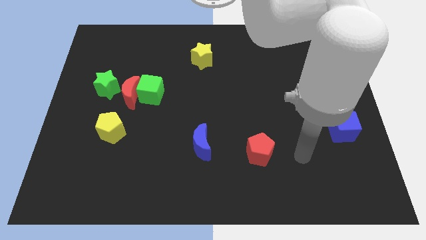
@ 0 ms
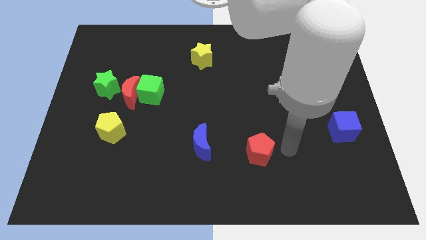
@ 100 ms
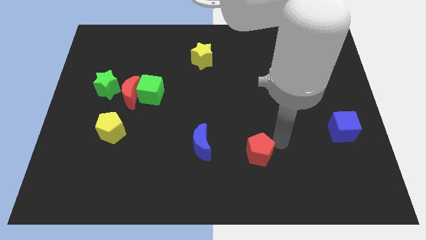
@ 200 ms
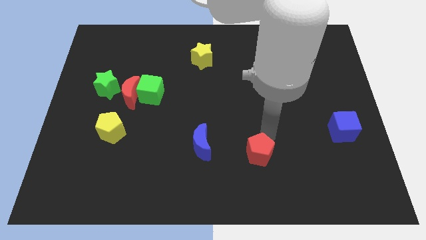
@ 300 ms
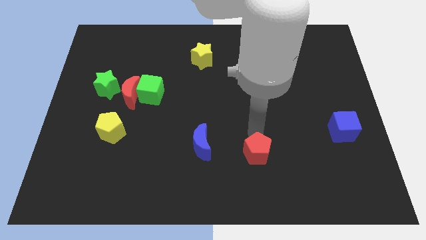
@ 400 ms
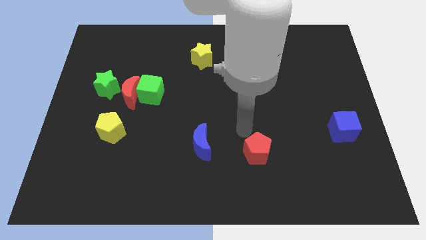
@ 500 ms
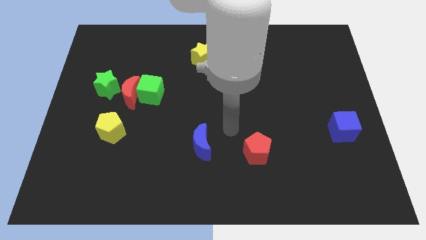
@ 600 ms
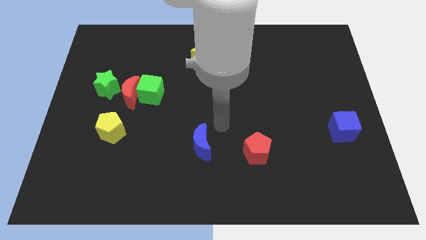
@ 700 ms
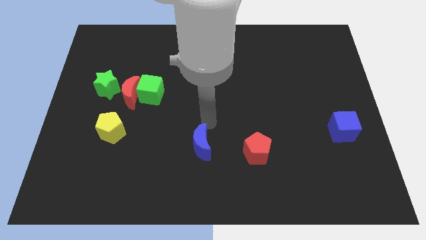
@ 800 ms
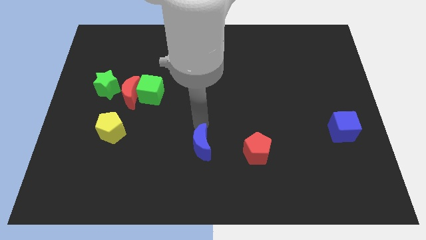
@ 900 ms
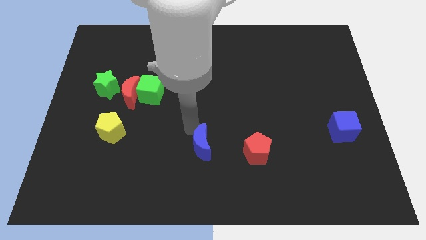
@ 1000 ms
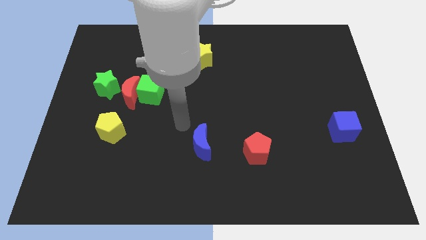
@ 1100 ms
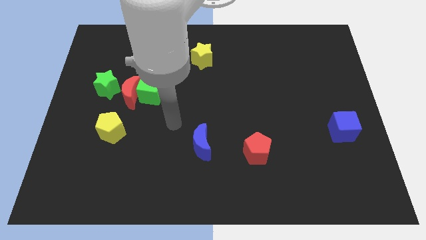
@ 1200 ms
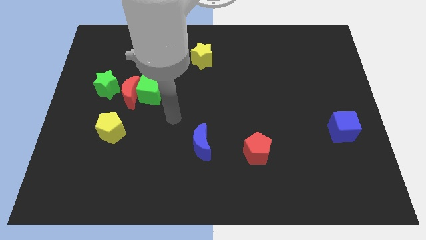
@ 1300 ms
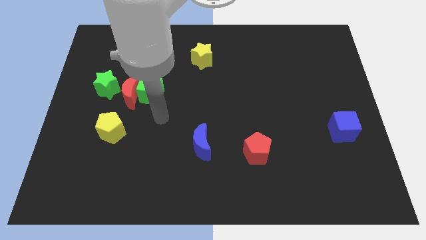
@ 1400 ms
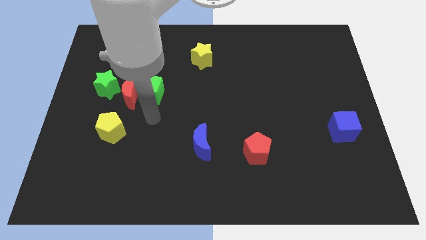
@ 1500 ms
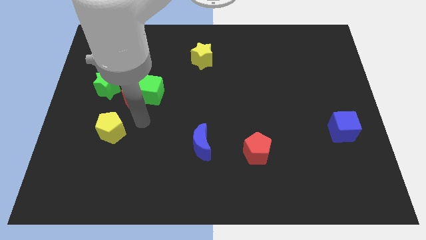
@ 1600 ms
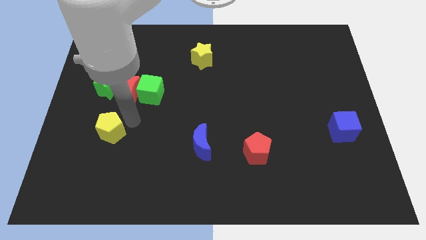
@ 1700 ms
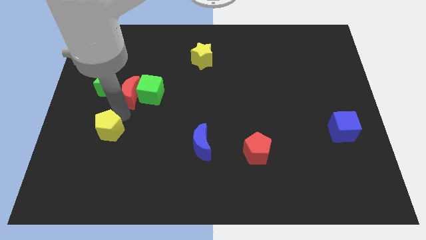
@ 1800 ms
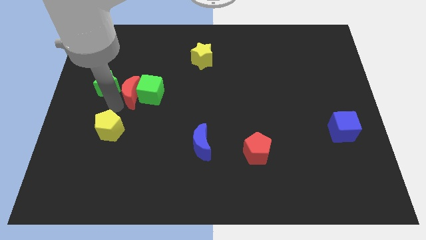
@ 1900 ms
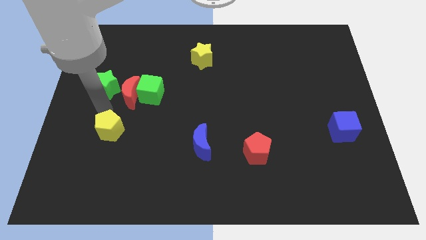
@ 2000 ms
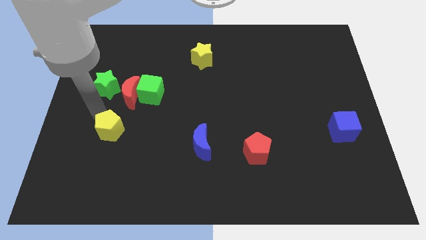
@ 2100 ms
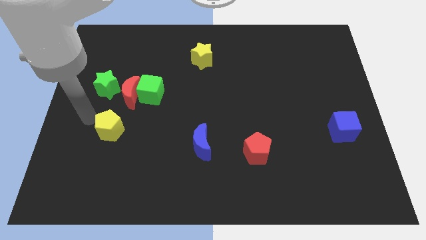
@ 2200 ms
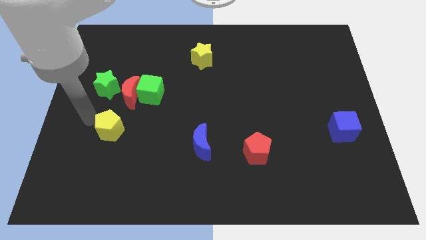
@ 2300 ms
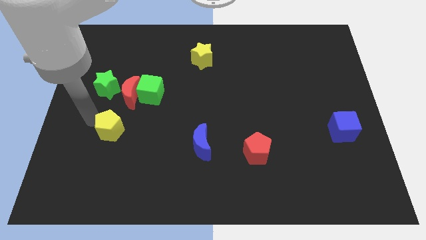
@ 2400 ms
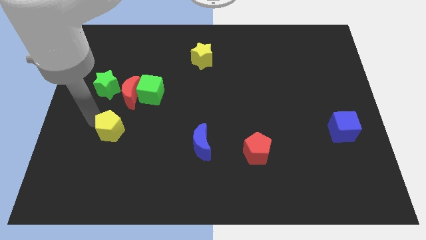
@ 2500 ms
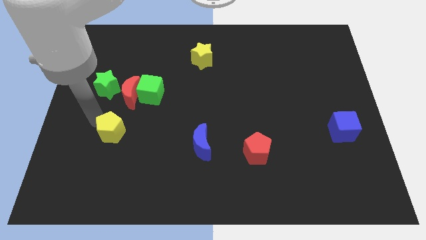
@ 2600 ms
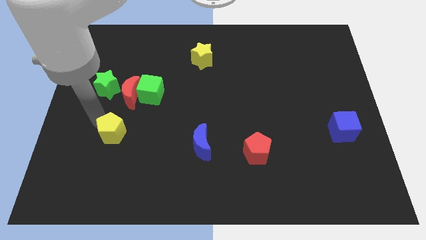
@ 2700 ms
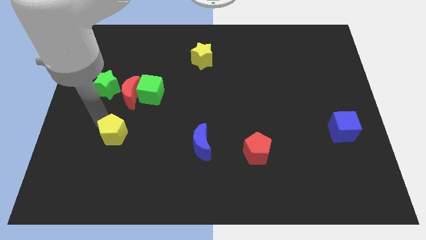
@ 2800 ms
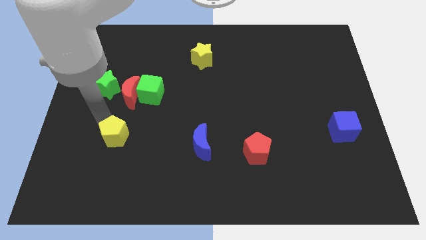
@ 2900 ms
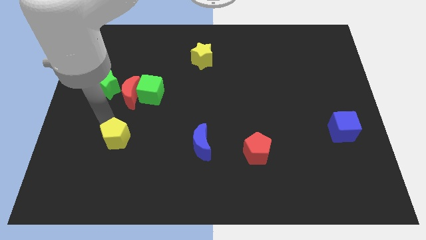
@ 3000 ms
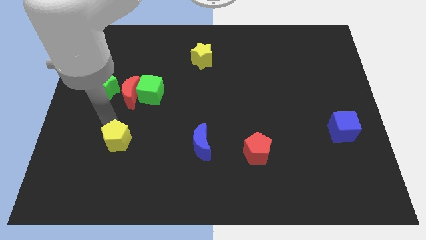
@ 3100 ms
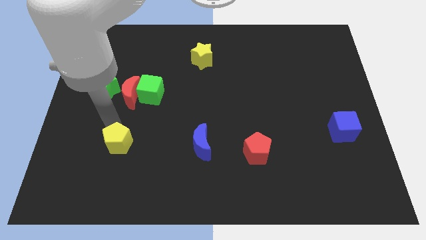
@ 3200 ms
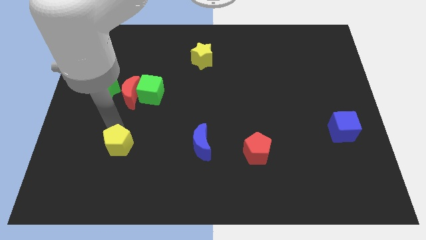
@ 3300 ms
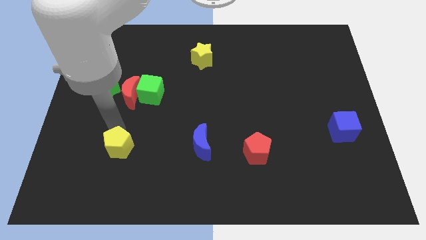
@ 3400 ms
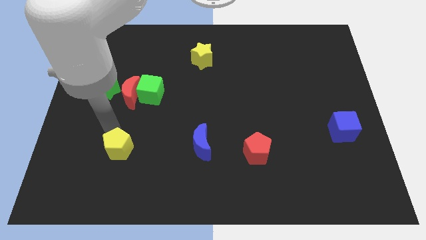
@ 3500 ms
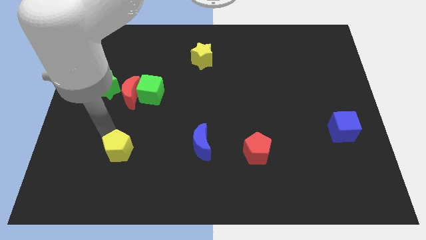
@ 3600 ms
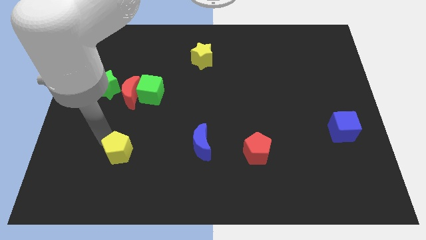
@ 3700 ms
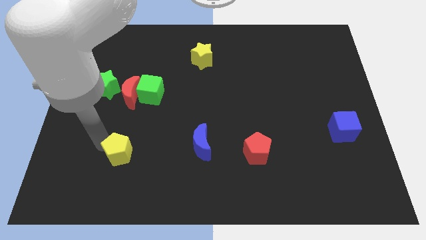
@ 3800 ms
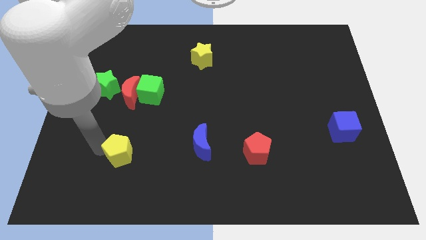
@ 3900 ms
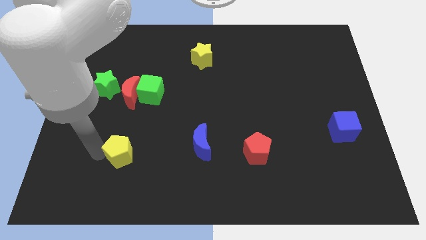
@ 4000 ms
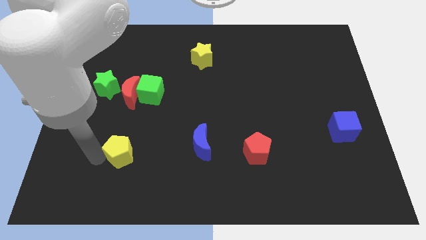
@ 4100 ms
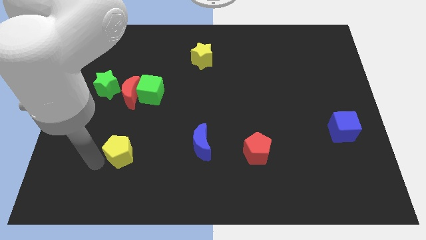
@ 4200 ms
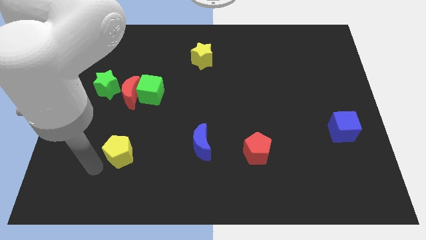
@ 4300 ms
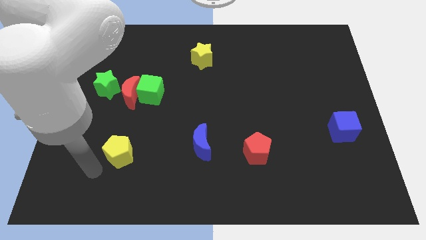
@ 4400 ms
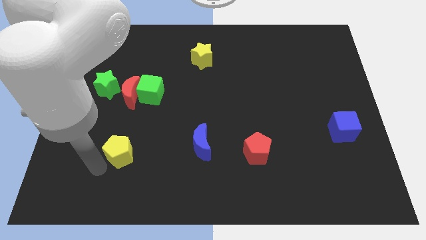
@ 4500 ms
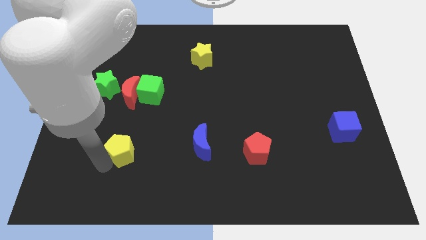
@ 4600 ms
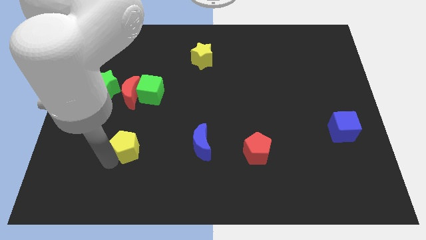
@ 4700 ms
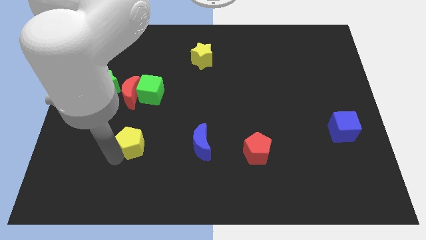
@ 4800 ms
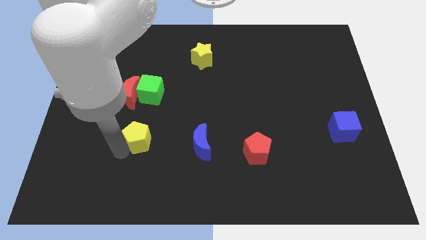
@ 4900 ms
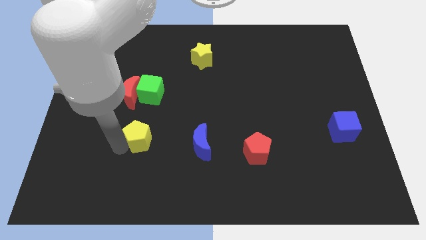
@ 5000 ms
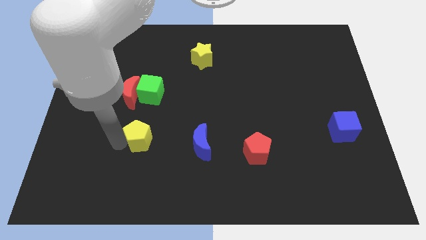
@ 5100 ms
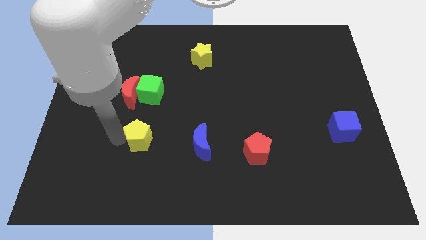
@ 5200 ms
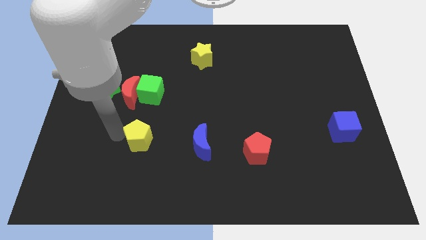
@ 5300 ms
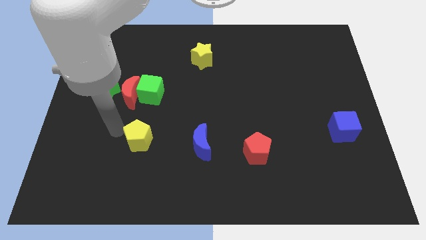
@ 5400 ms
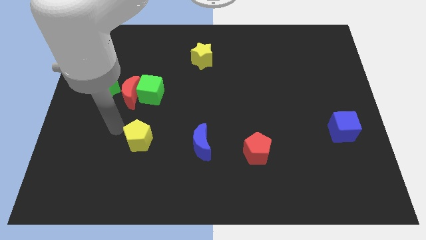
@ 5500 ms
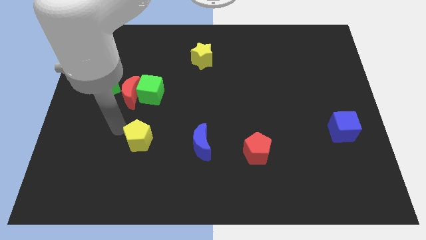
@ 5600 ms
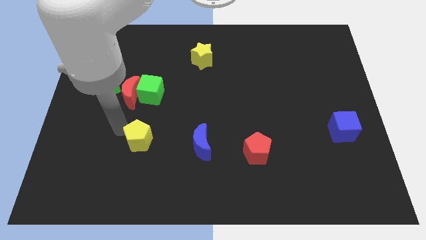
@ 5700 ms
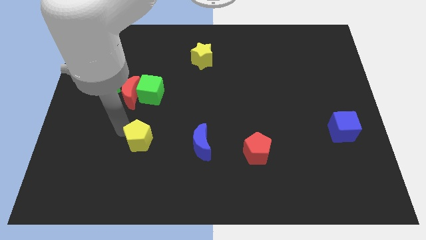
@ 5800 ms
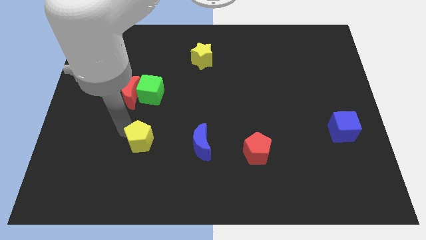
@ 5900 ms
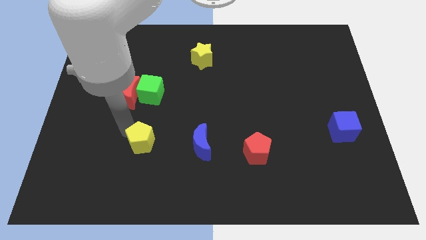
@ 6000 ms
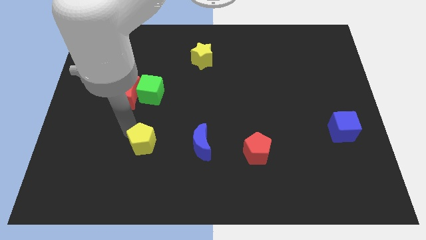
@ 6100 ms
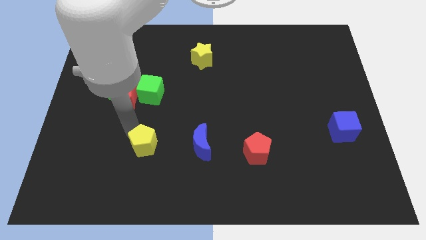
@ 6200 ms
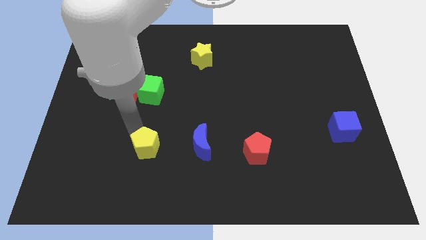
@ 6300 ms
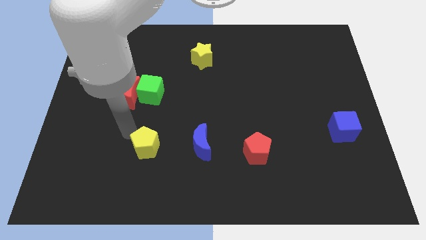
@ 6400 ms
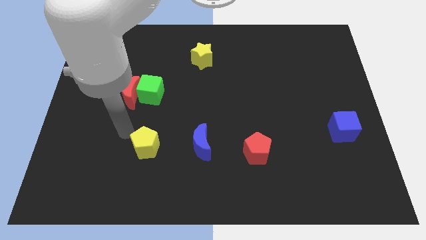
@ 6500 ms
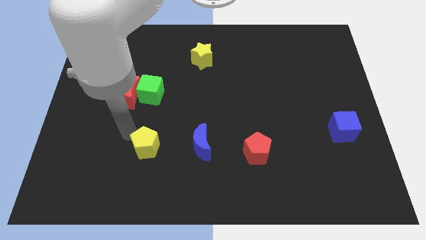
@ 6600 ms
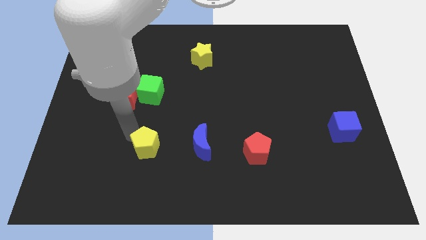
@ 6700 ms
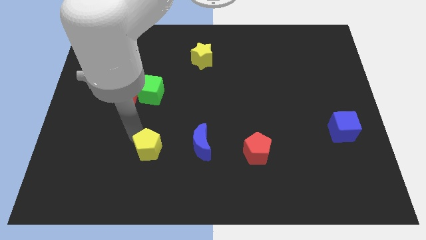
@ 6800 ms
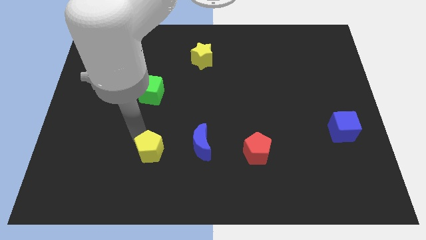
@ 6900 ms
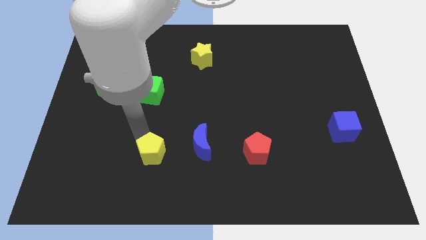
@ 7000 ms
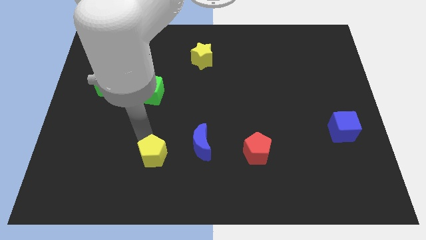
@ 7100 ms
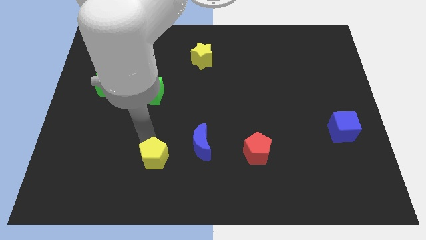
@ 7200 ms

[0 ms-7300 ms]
put the yellow pentagon to the bottom left side of the blue moon
